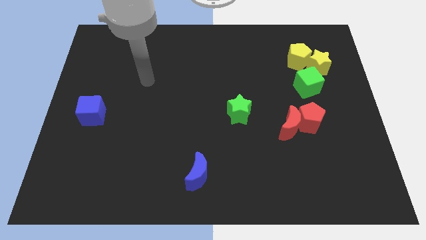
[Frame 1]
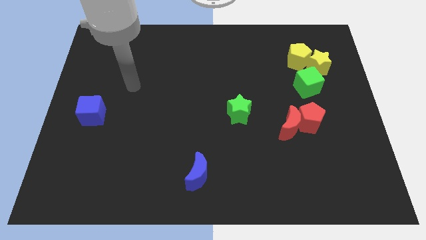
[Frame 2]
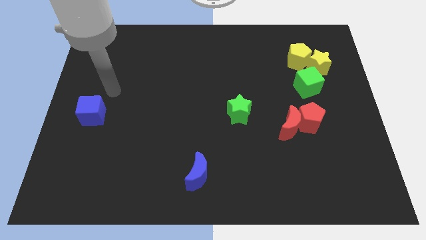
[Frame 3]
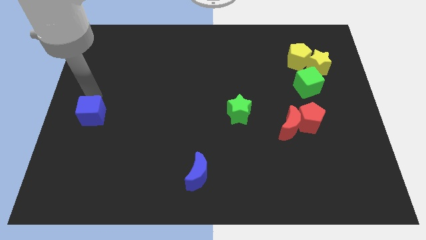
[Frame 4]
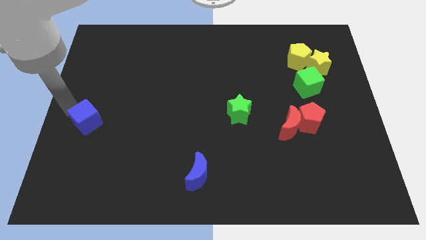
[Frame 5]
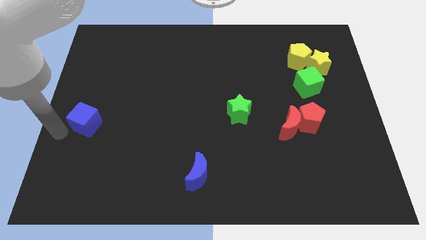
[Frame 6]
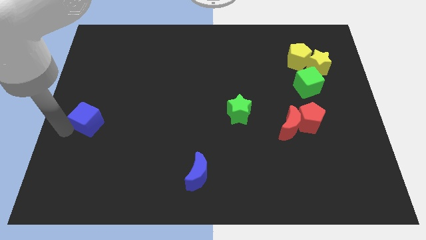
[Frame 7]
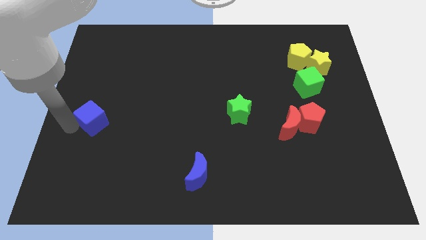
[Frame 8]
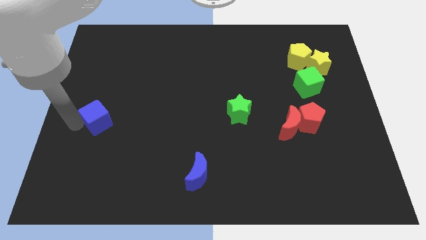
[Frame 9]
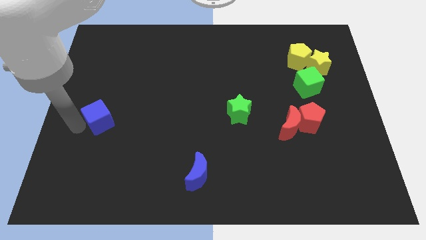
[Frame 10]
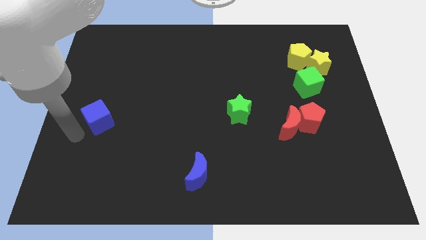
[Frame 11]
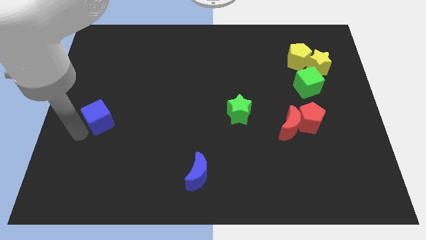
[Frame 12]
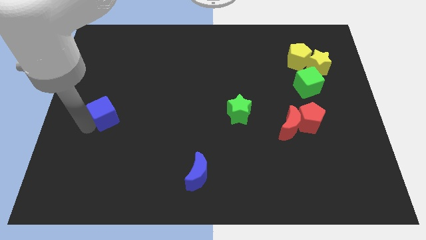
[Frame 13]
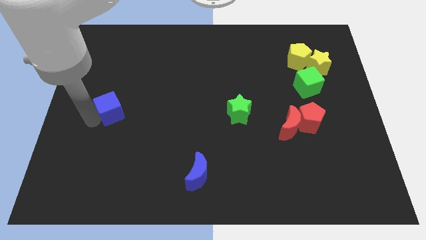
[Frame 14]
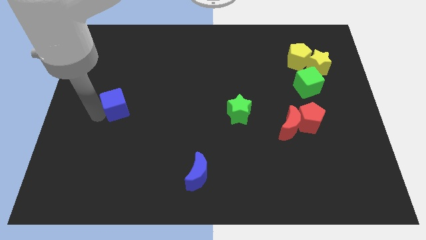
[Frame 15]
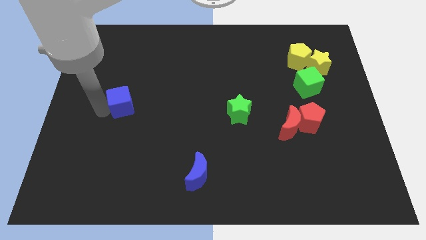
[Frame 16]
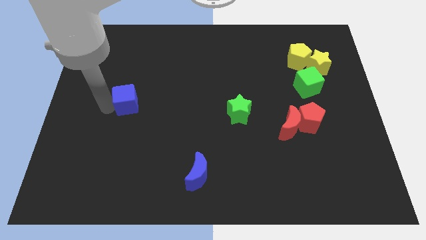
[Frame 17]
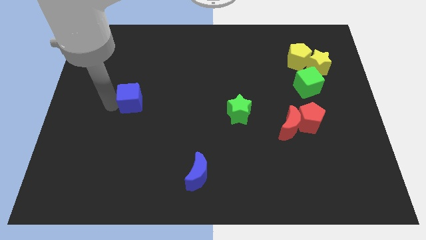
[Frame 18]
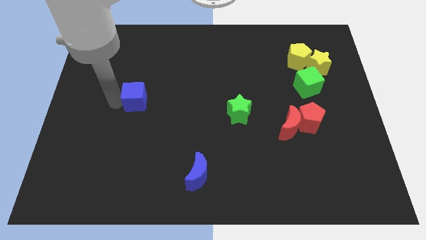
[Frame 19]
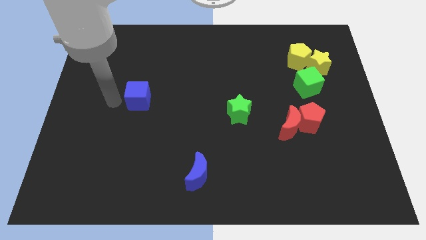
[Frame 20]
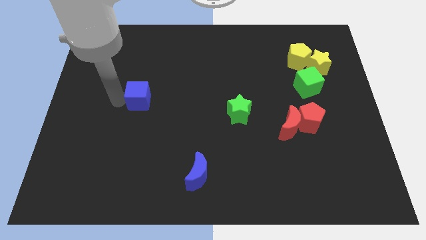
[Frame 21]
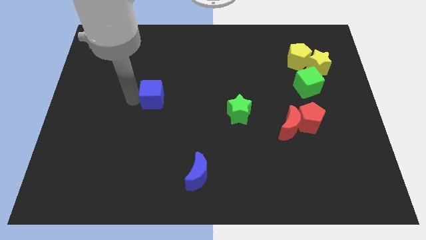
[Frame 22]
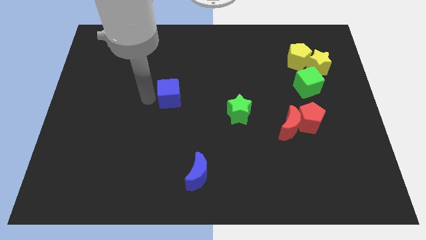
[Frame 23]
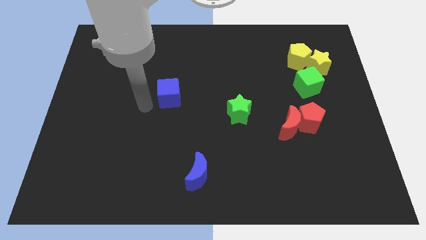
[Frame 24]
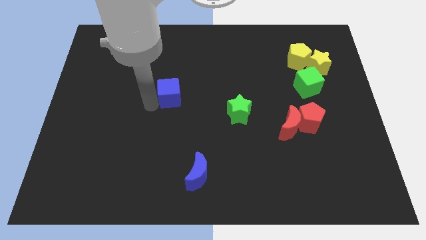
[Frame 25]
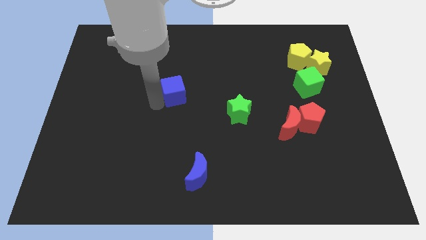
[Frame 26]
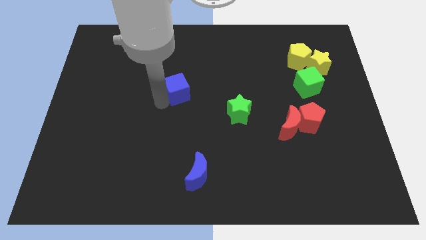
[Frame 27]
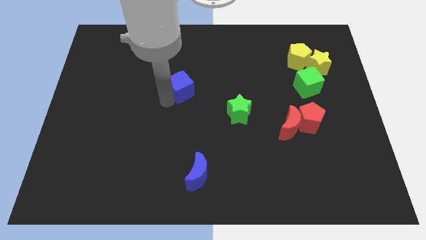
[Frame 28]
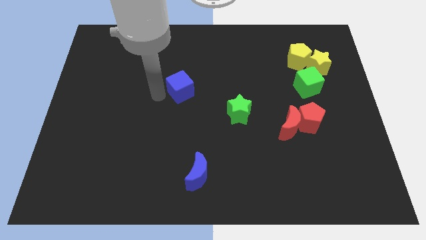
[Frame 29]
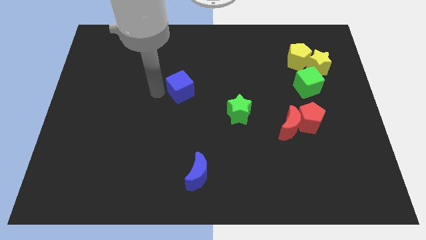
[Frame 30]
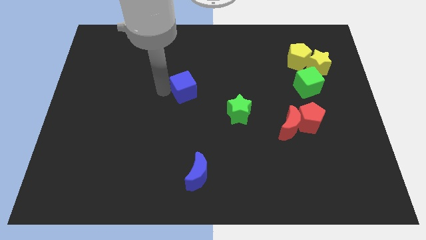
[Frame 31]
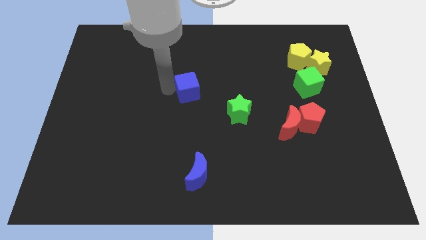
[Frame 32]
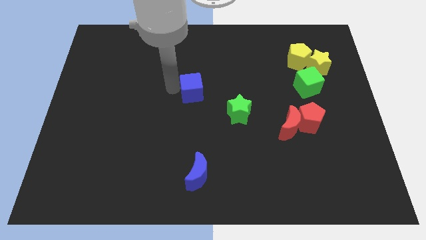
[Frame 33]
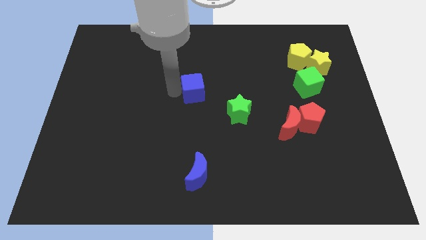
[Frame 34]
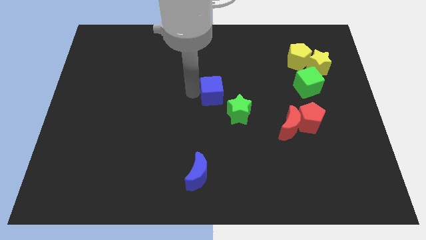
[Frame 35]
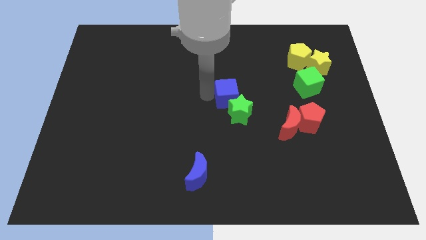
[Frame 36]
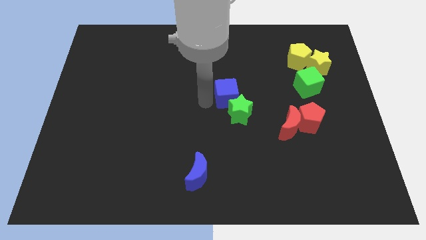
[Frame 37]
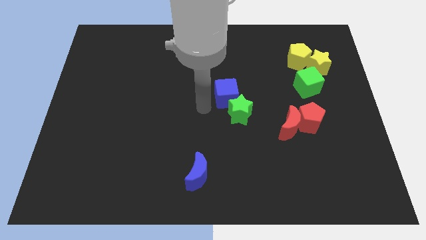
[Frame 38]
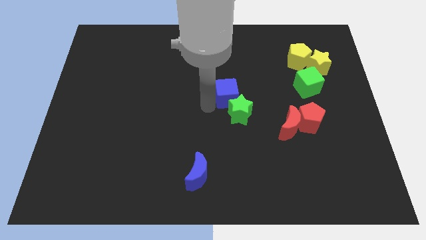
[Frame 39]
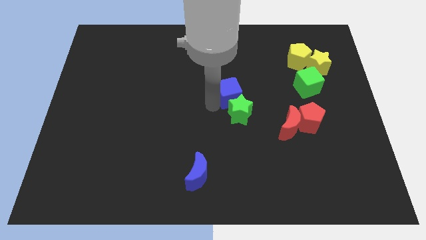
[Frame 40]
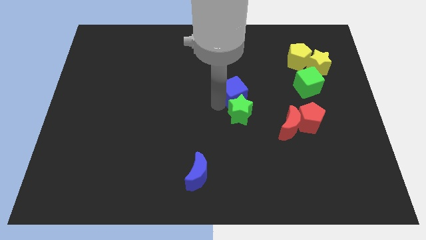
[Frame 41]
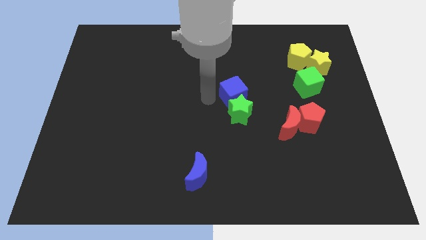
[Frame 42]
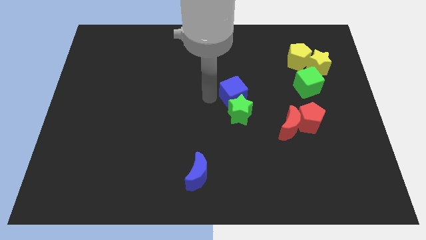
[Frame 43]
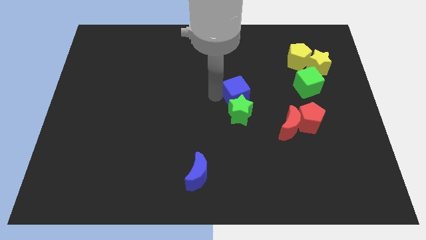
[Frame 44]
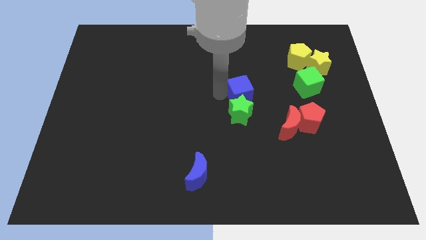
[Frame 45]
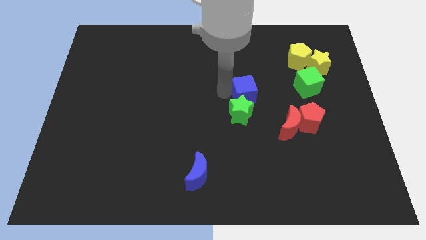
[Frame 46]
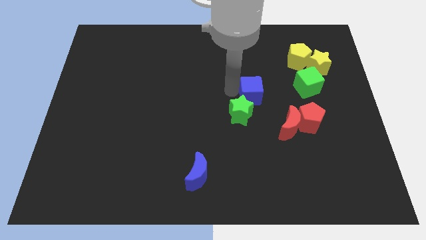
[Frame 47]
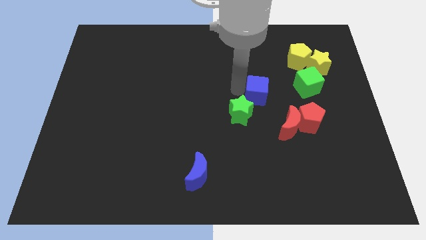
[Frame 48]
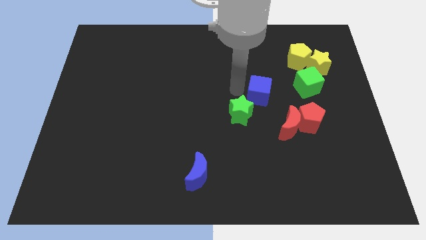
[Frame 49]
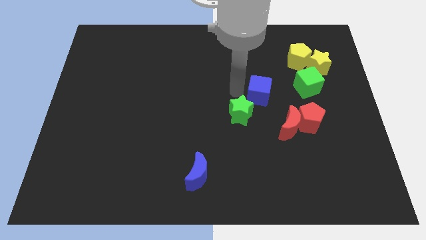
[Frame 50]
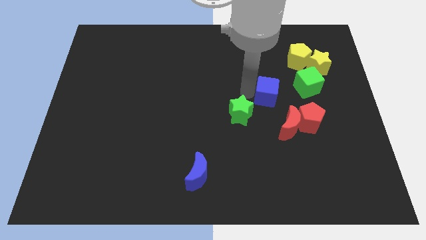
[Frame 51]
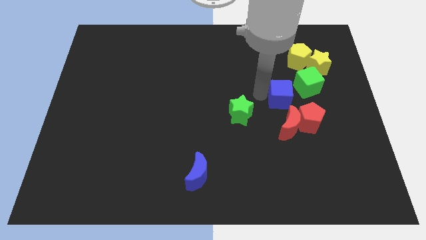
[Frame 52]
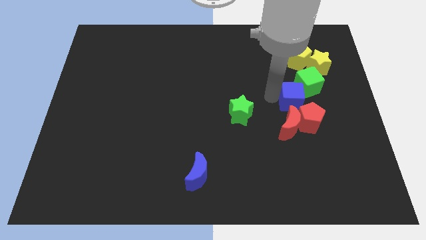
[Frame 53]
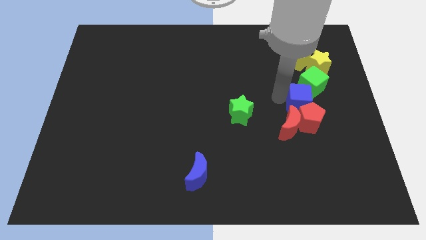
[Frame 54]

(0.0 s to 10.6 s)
move the blue cube next to the red pentagon

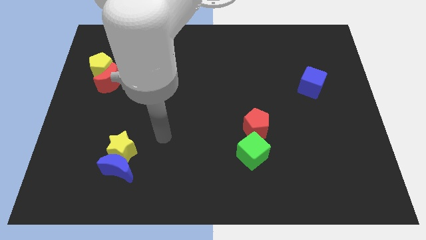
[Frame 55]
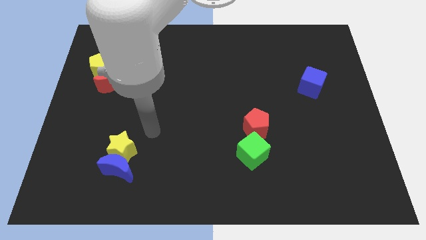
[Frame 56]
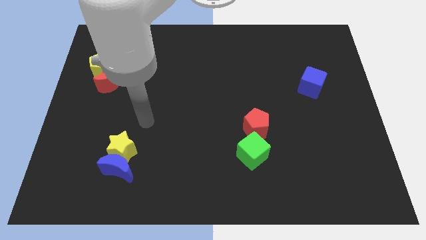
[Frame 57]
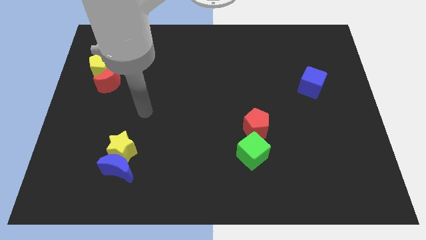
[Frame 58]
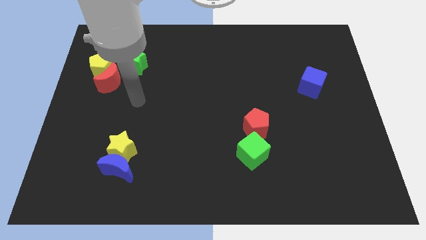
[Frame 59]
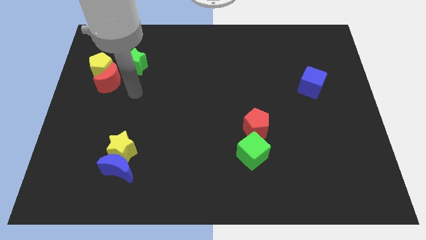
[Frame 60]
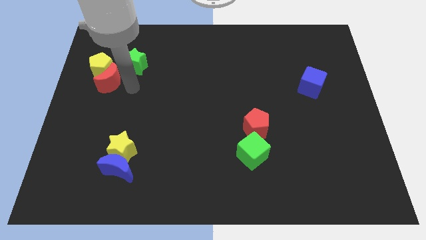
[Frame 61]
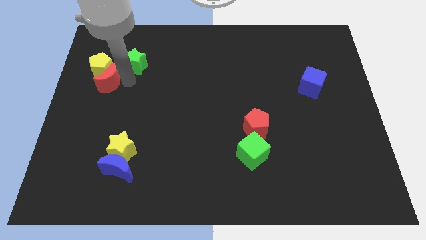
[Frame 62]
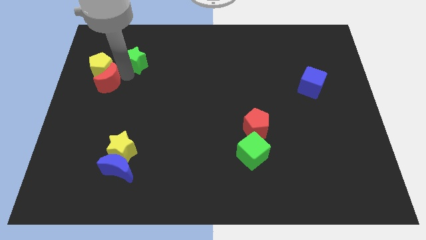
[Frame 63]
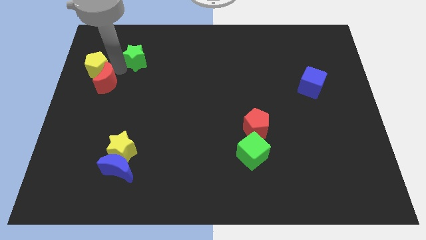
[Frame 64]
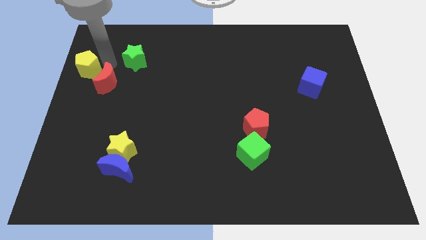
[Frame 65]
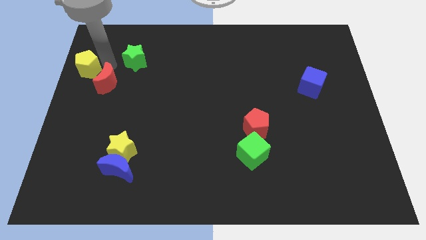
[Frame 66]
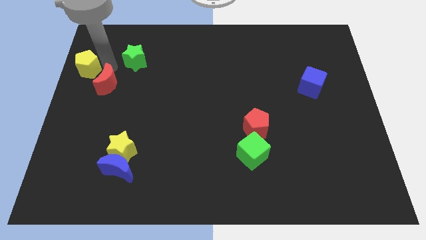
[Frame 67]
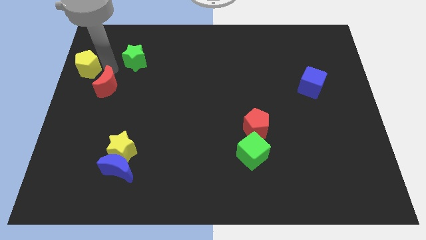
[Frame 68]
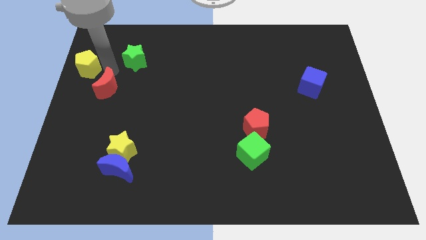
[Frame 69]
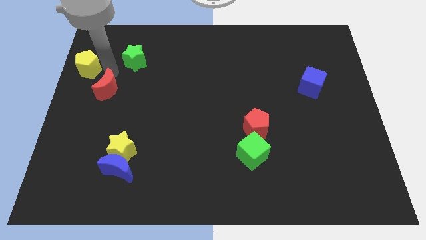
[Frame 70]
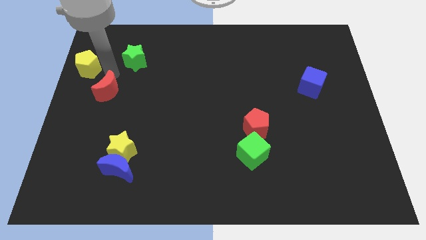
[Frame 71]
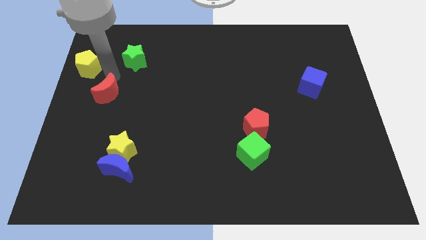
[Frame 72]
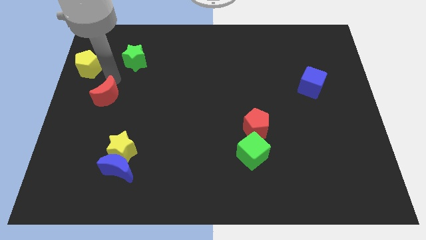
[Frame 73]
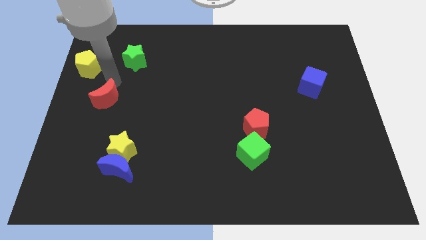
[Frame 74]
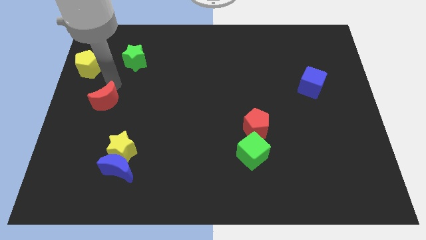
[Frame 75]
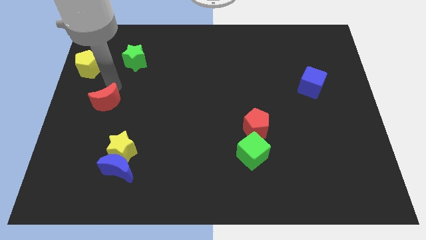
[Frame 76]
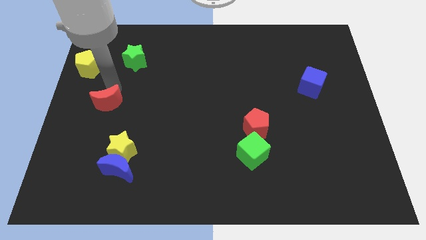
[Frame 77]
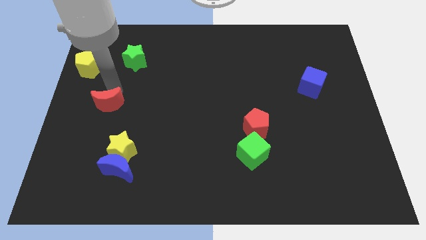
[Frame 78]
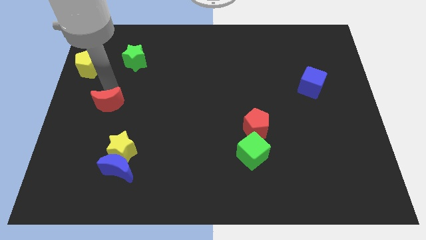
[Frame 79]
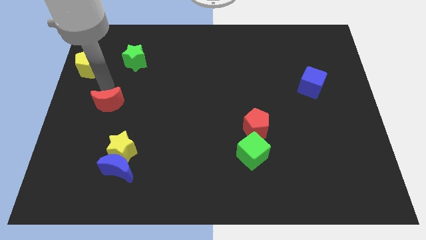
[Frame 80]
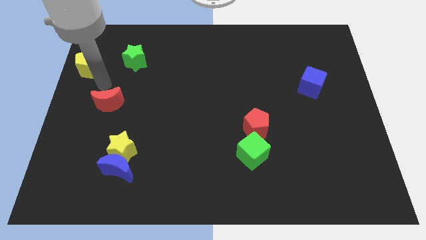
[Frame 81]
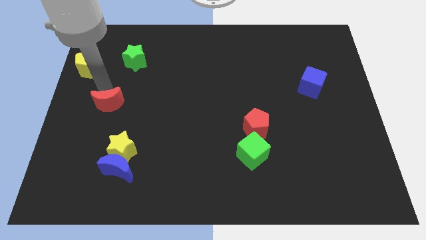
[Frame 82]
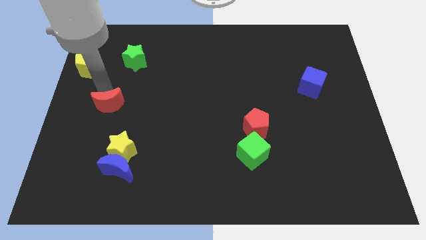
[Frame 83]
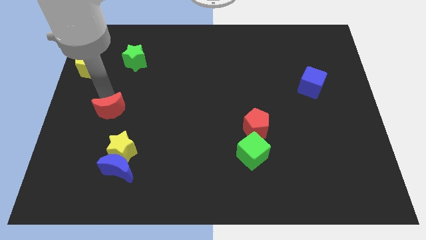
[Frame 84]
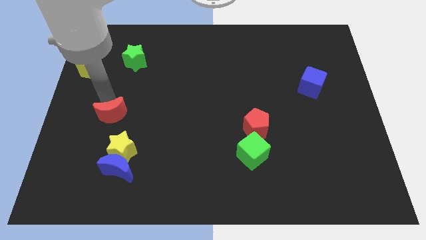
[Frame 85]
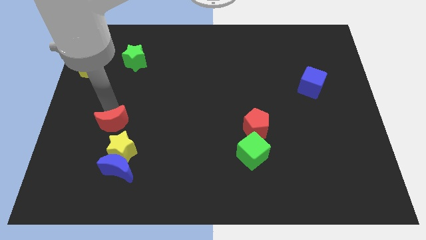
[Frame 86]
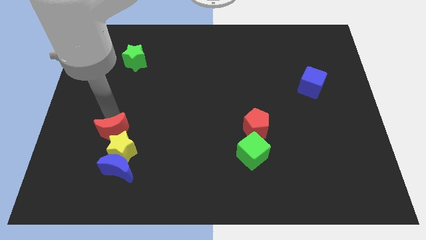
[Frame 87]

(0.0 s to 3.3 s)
move the red moon to the yellow star
